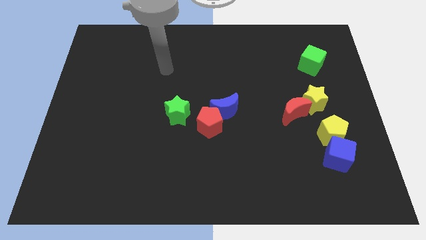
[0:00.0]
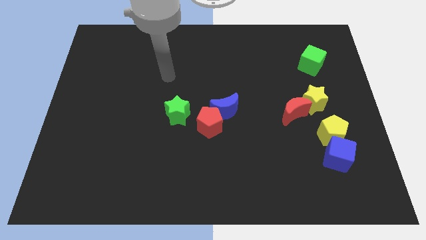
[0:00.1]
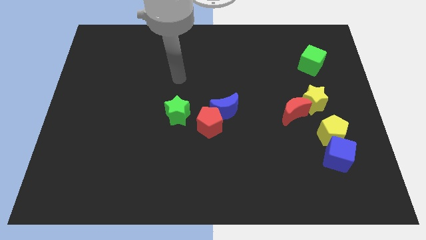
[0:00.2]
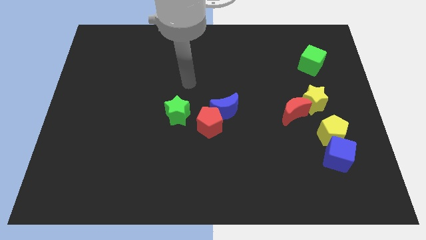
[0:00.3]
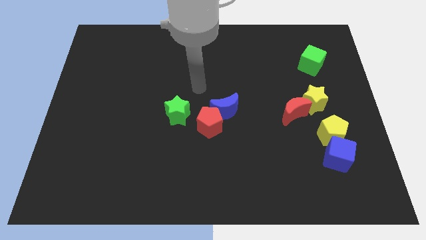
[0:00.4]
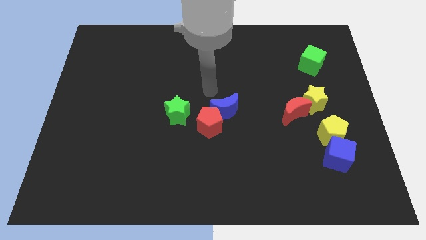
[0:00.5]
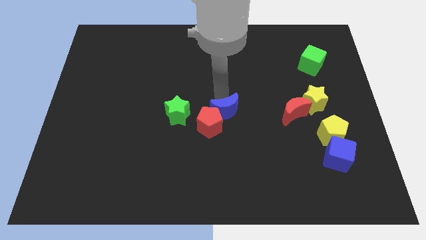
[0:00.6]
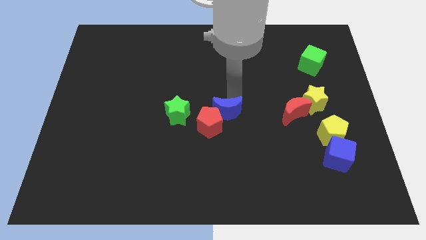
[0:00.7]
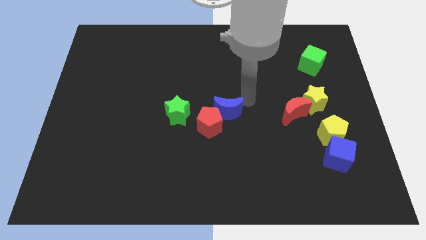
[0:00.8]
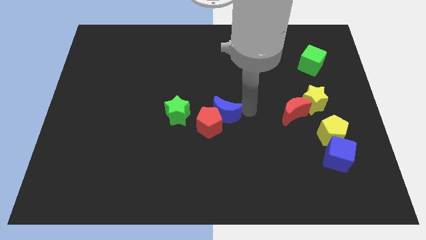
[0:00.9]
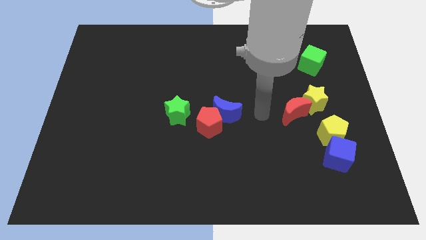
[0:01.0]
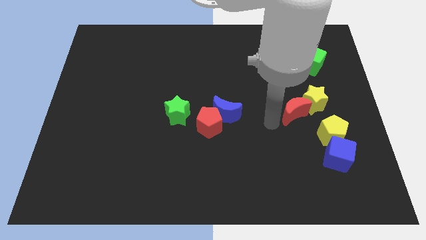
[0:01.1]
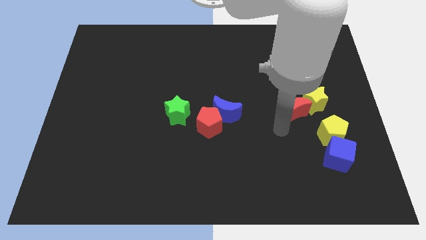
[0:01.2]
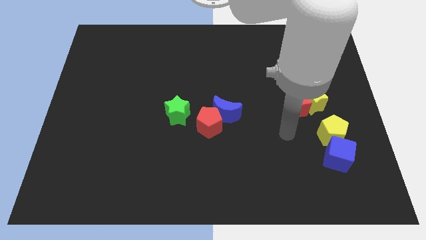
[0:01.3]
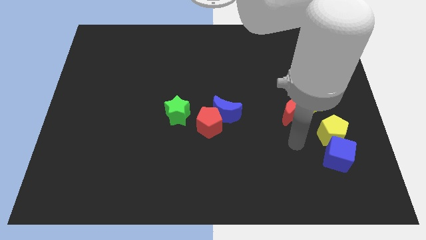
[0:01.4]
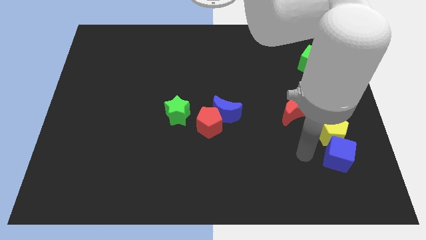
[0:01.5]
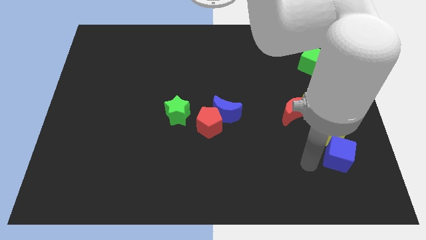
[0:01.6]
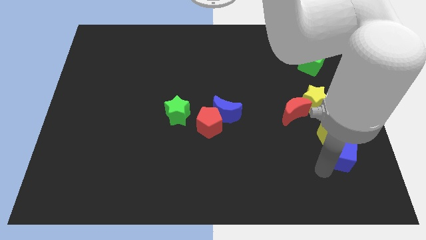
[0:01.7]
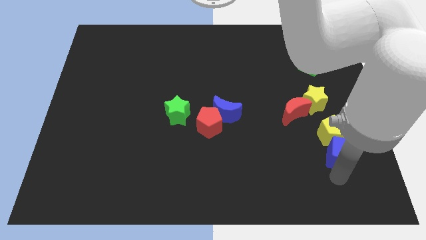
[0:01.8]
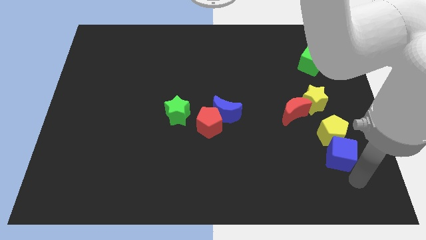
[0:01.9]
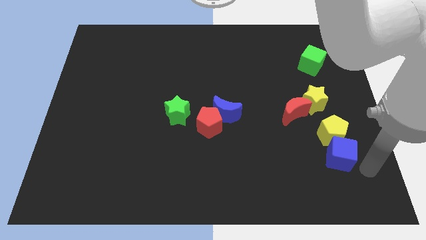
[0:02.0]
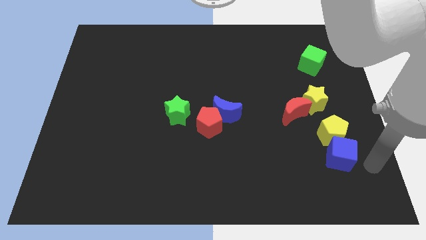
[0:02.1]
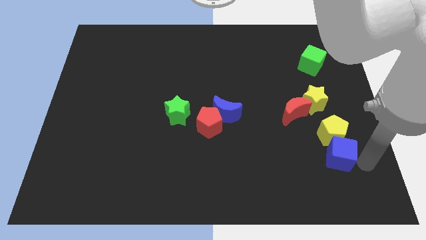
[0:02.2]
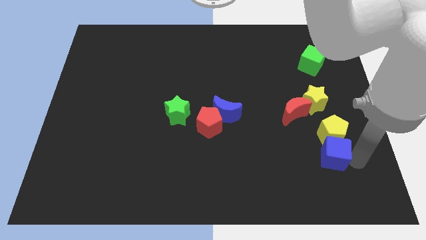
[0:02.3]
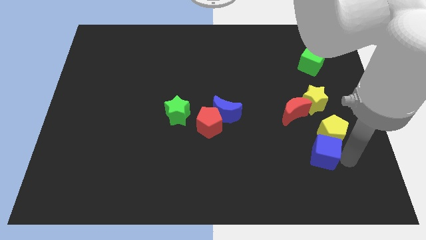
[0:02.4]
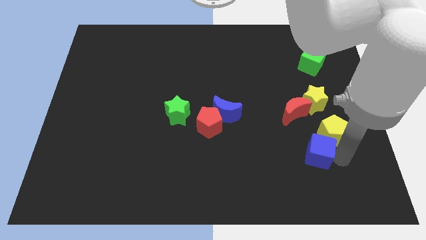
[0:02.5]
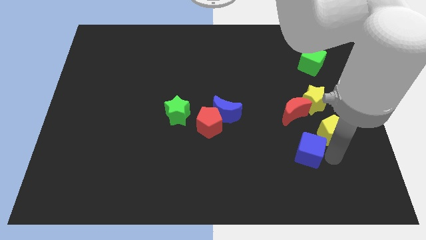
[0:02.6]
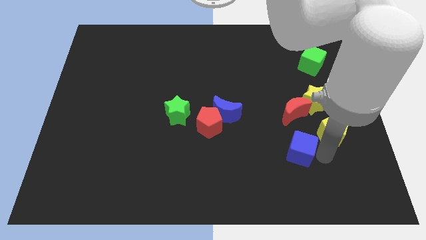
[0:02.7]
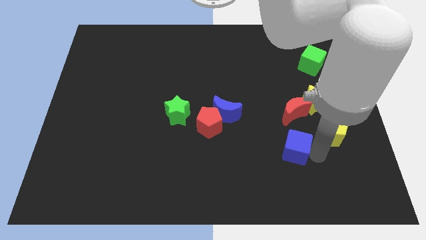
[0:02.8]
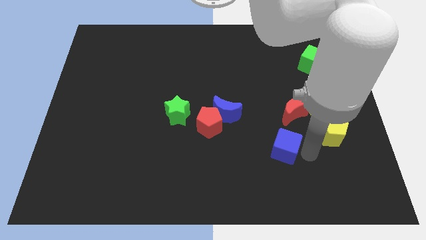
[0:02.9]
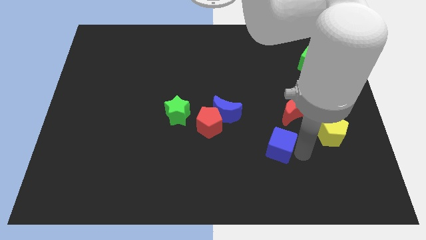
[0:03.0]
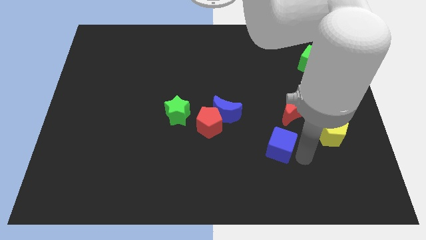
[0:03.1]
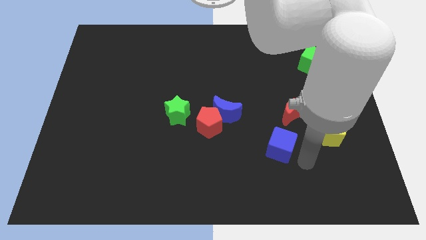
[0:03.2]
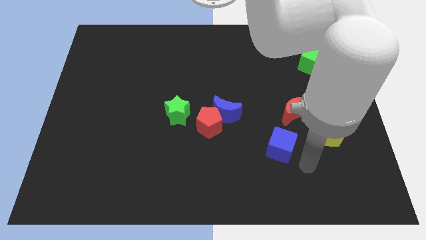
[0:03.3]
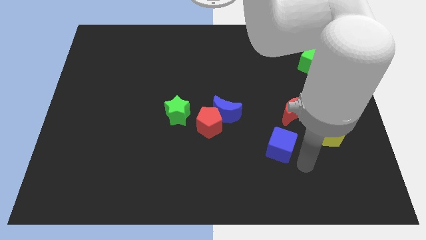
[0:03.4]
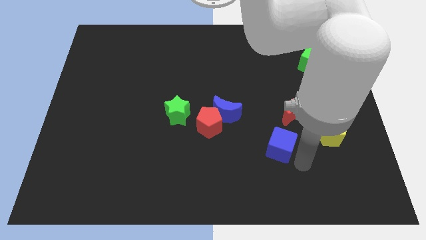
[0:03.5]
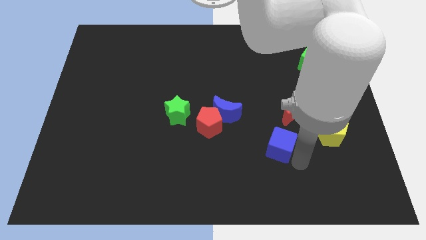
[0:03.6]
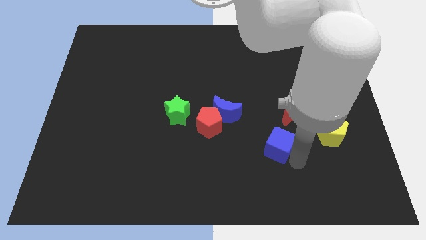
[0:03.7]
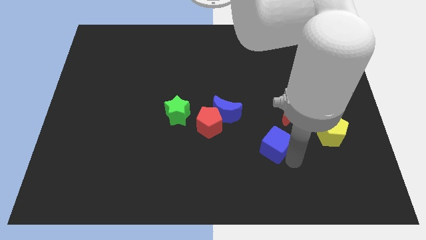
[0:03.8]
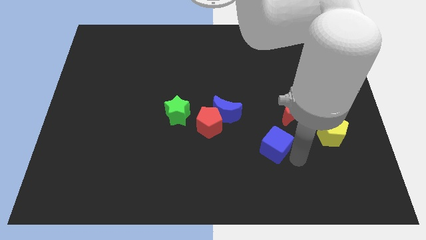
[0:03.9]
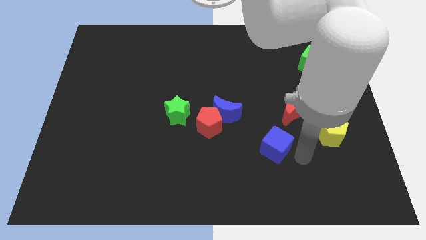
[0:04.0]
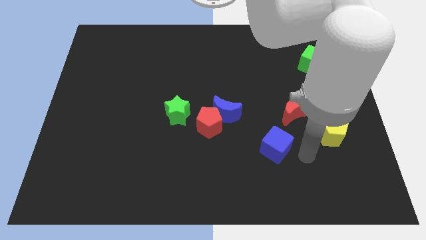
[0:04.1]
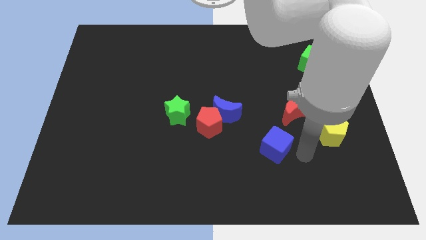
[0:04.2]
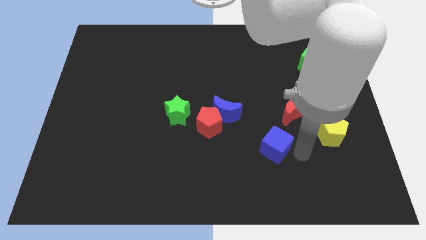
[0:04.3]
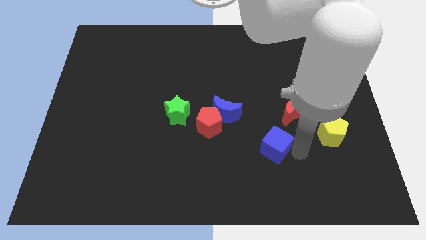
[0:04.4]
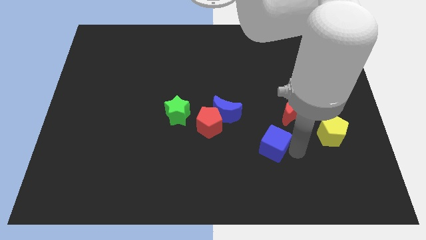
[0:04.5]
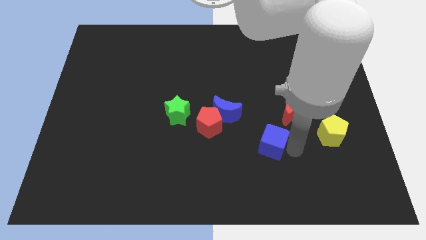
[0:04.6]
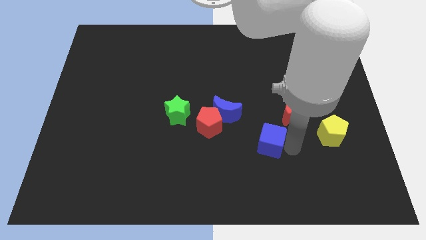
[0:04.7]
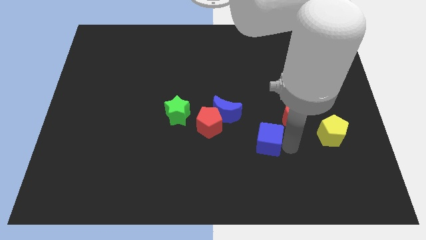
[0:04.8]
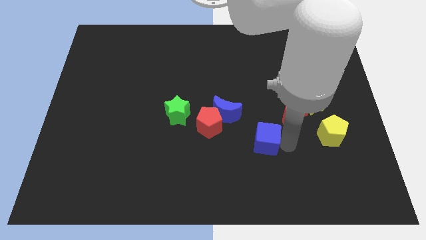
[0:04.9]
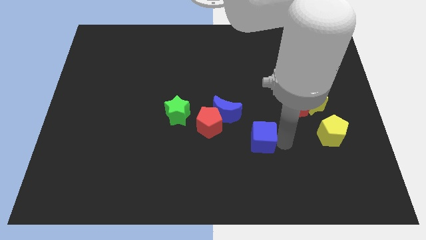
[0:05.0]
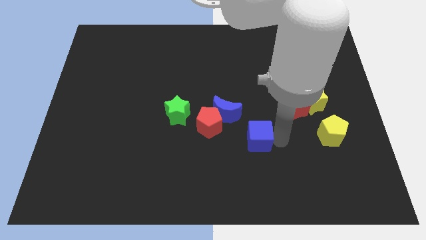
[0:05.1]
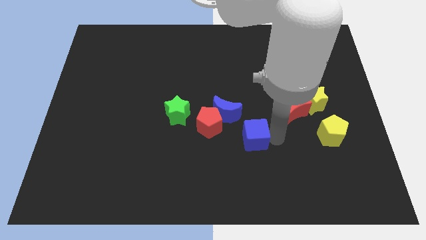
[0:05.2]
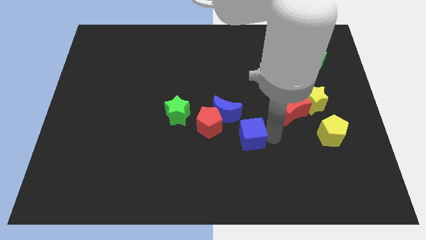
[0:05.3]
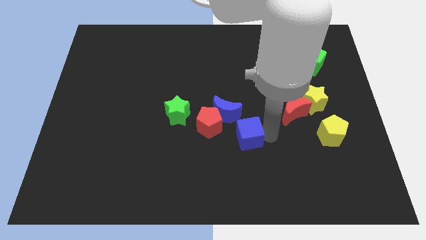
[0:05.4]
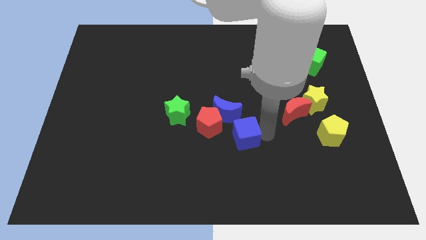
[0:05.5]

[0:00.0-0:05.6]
push the blue cube to the bottom of the blue moon

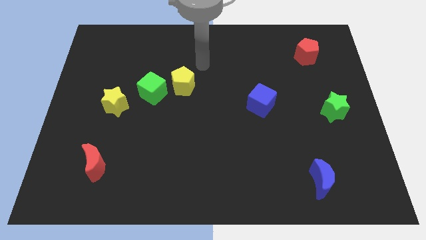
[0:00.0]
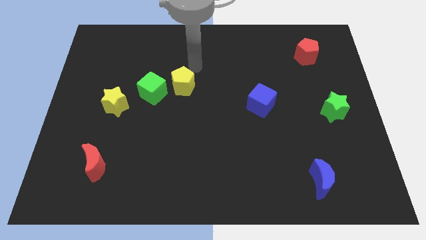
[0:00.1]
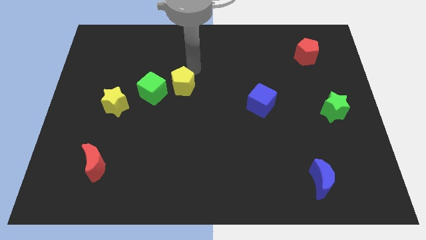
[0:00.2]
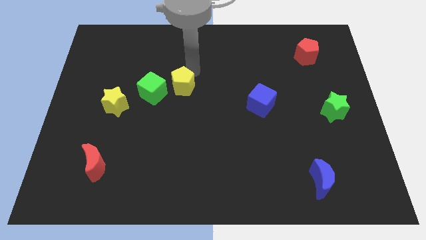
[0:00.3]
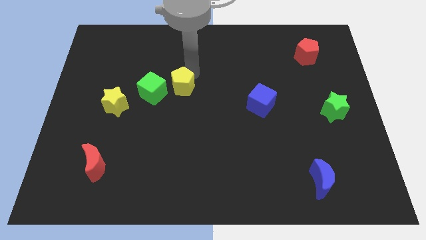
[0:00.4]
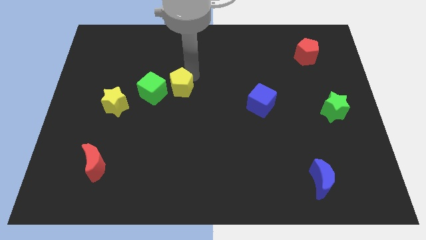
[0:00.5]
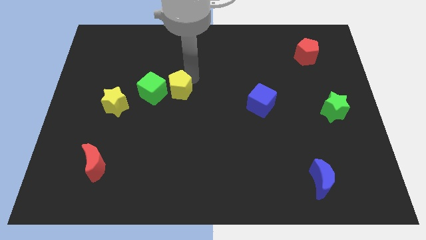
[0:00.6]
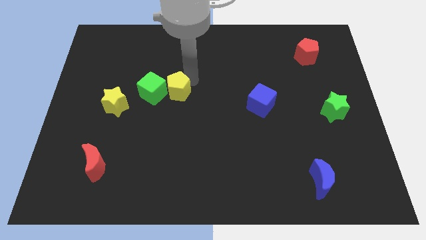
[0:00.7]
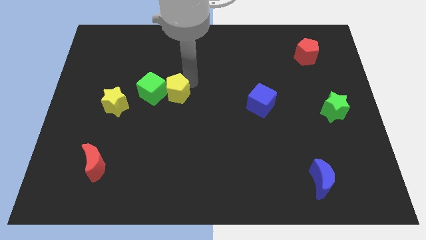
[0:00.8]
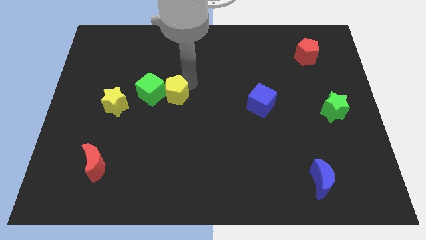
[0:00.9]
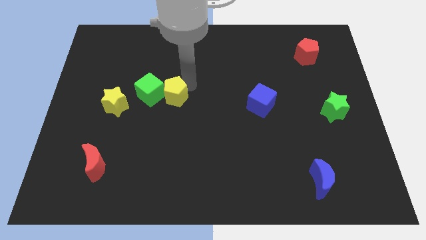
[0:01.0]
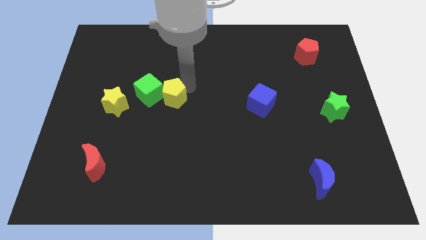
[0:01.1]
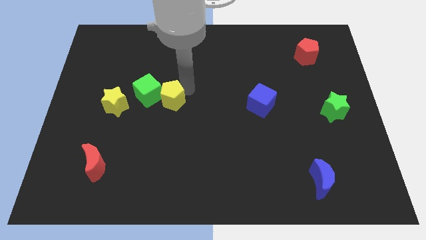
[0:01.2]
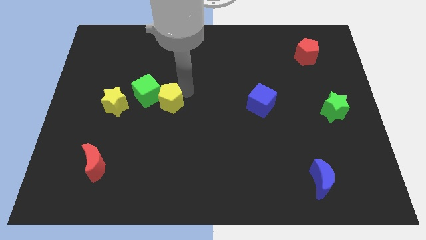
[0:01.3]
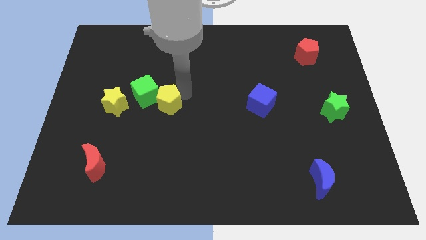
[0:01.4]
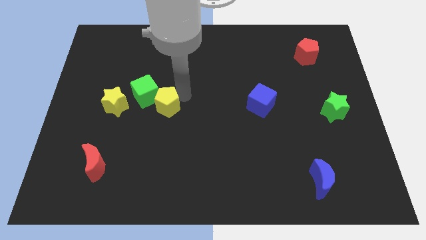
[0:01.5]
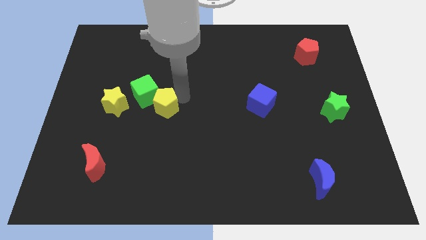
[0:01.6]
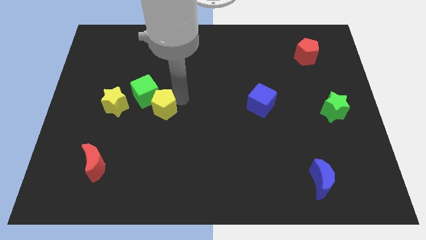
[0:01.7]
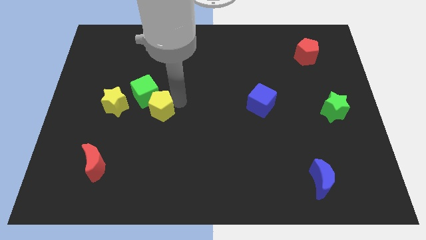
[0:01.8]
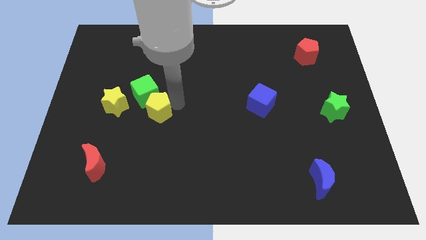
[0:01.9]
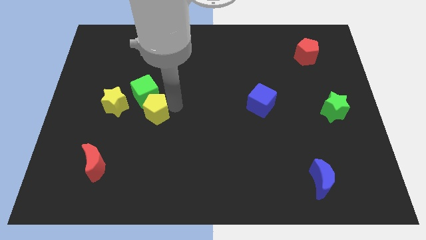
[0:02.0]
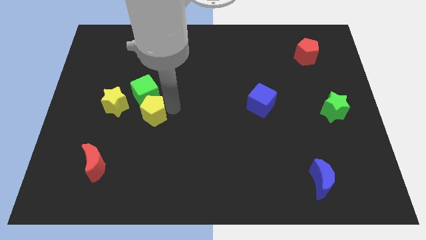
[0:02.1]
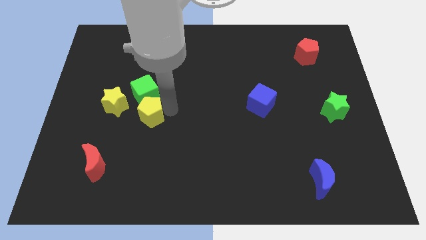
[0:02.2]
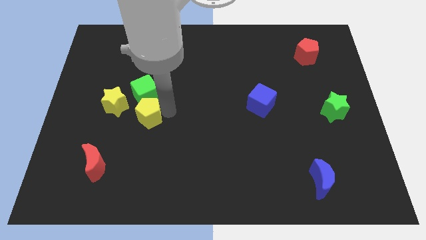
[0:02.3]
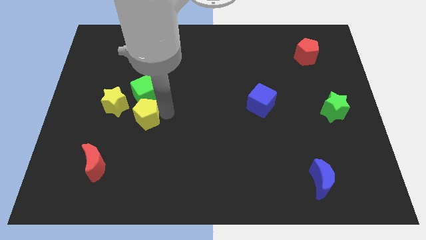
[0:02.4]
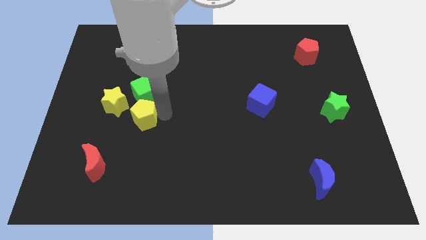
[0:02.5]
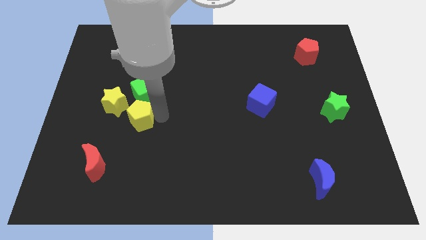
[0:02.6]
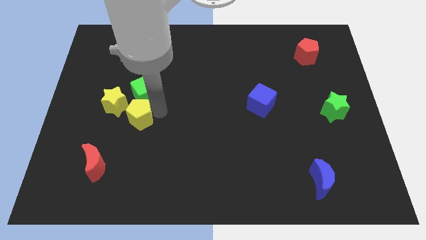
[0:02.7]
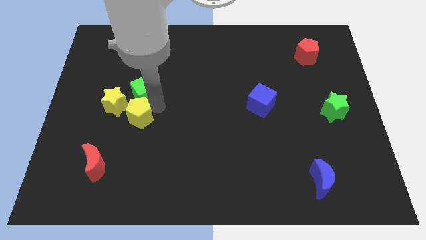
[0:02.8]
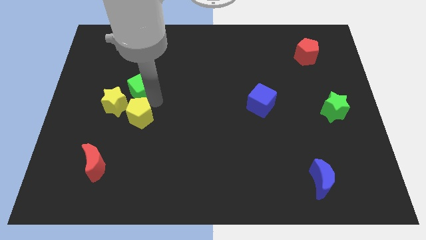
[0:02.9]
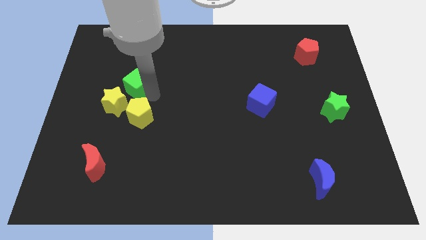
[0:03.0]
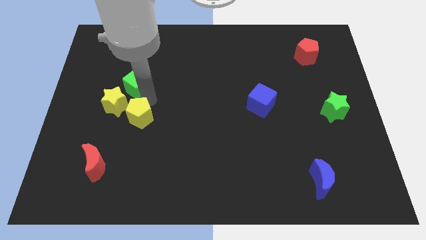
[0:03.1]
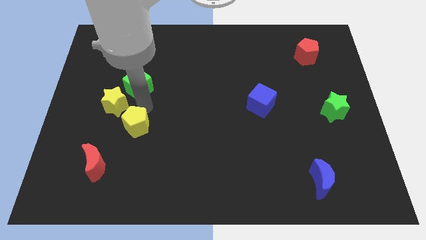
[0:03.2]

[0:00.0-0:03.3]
put the yellow pentagon to the top right side of the red moon
